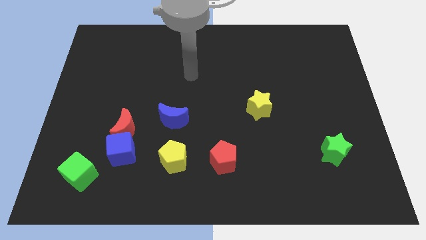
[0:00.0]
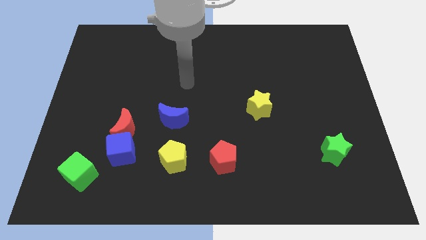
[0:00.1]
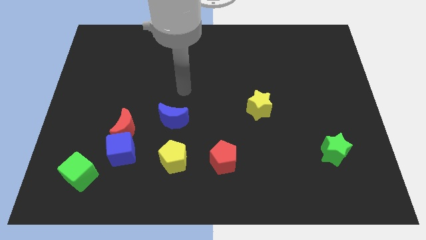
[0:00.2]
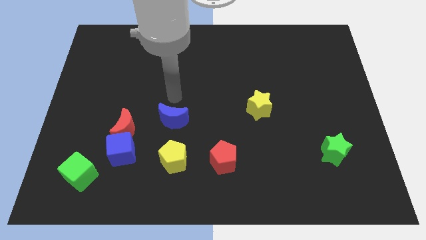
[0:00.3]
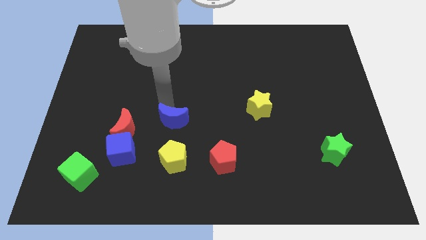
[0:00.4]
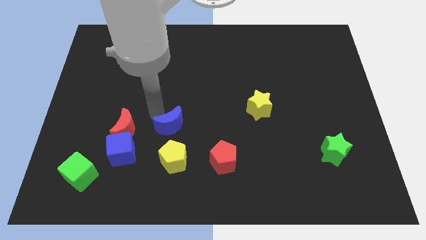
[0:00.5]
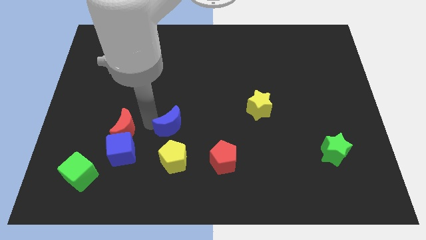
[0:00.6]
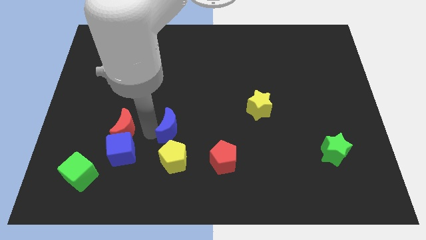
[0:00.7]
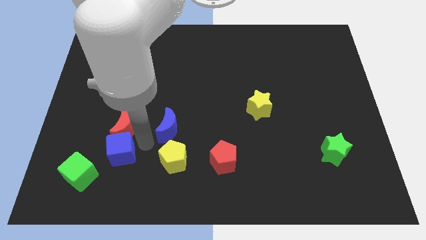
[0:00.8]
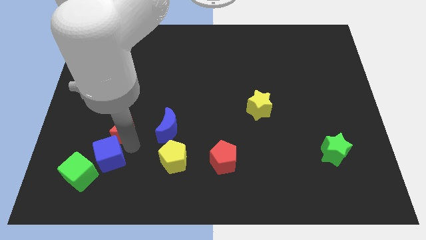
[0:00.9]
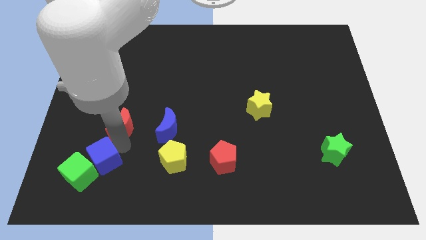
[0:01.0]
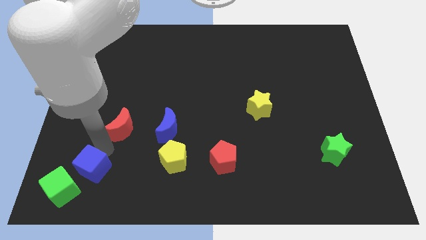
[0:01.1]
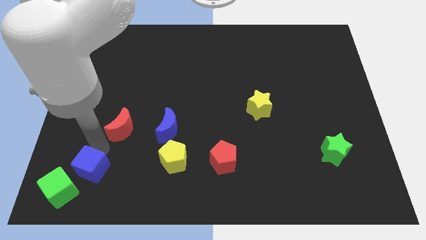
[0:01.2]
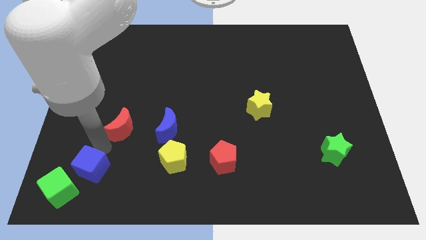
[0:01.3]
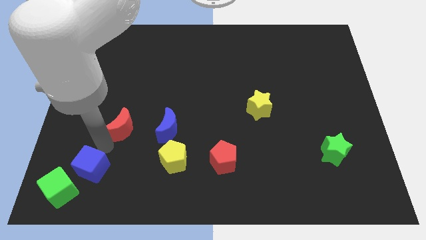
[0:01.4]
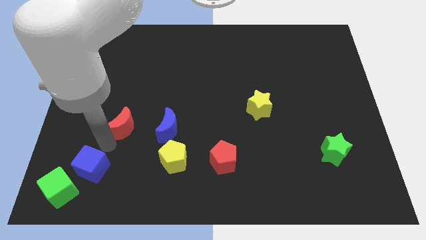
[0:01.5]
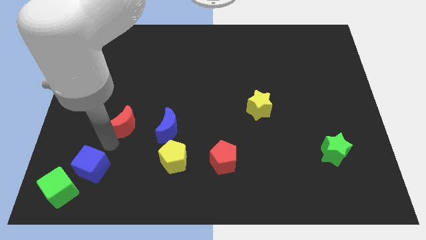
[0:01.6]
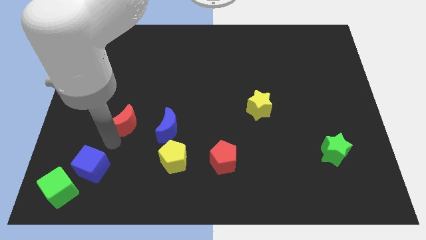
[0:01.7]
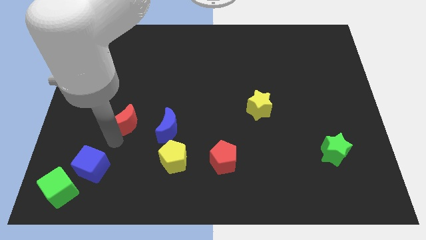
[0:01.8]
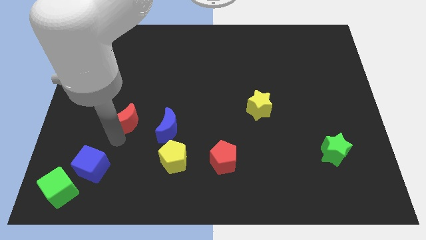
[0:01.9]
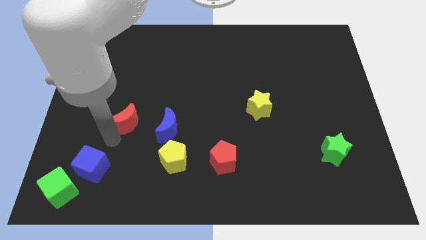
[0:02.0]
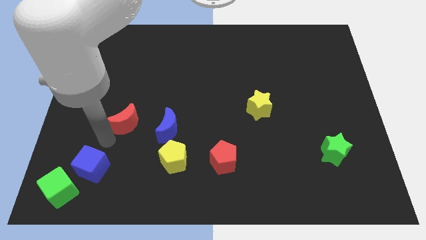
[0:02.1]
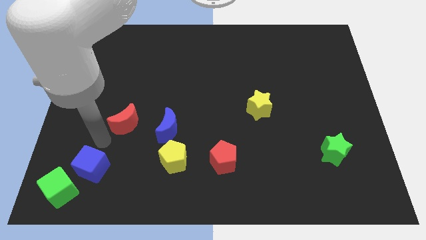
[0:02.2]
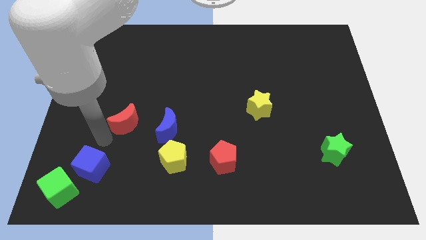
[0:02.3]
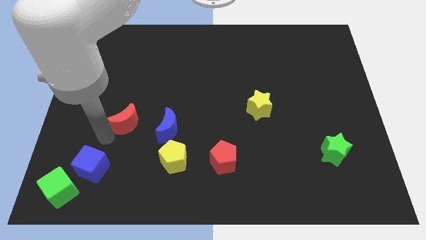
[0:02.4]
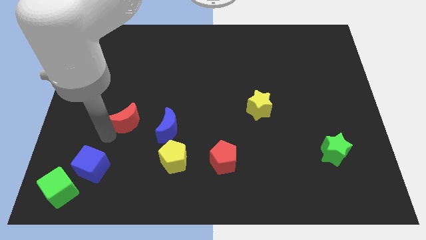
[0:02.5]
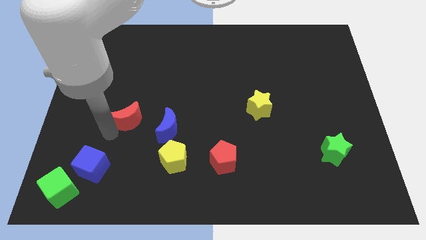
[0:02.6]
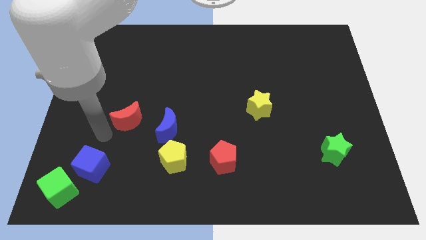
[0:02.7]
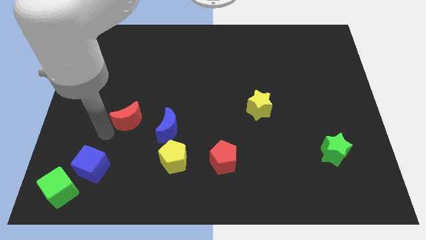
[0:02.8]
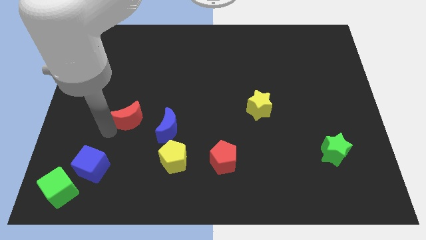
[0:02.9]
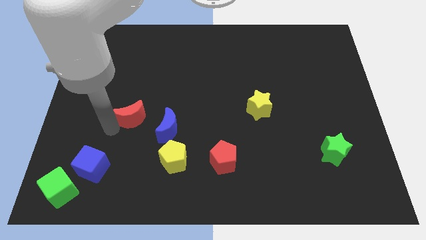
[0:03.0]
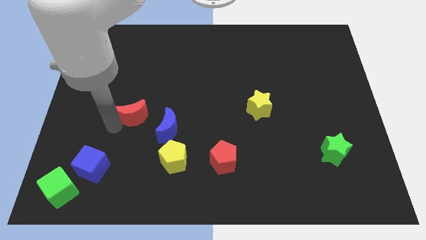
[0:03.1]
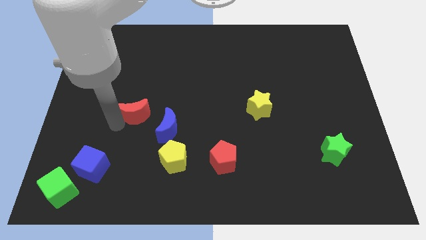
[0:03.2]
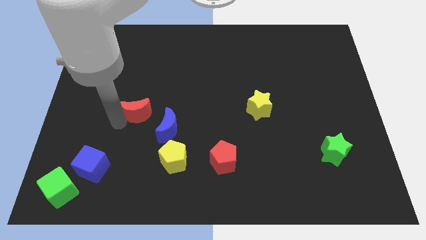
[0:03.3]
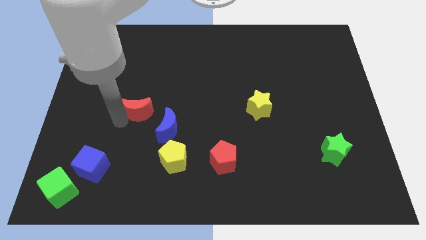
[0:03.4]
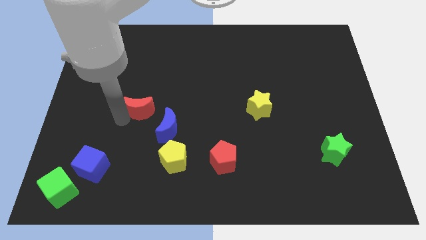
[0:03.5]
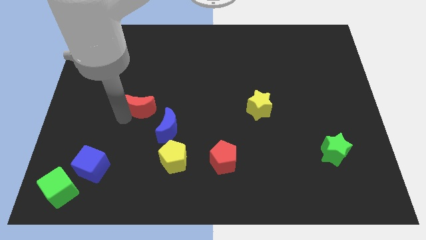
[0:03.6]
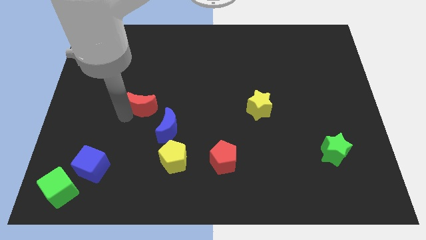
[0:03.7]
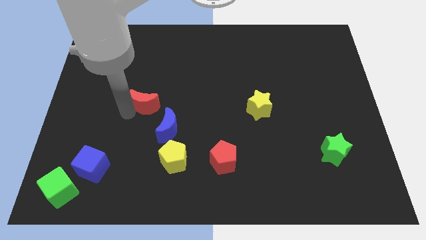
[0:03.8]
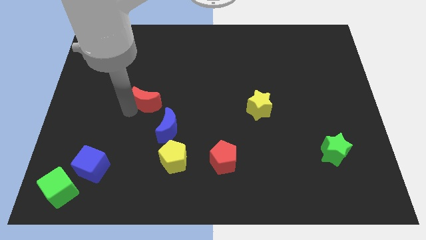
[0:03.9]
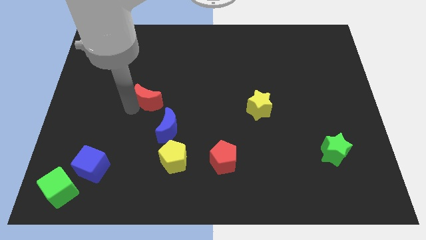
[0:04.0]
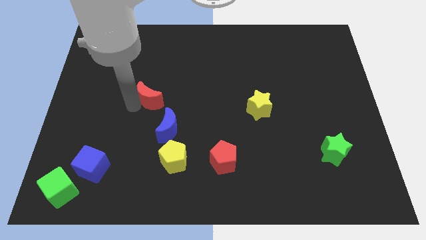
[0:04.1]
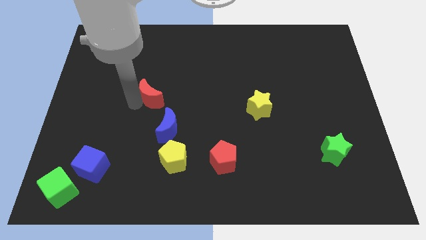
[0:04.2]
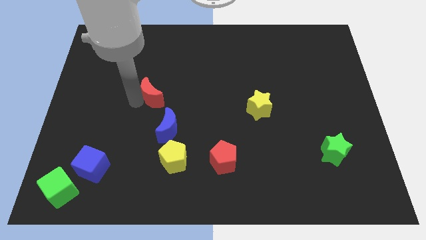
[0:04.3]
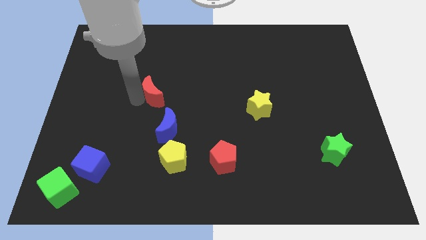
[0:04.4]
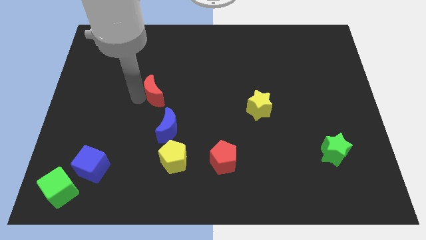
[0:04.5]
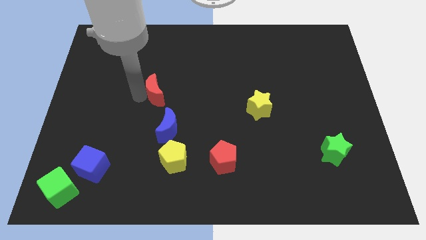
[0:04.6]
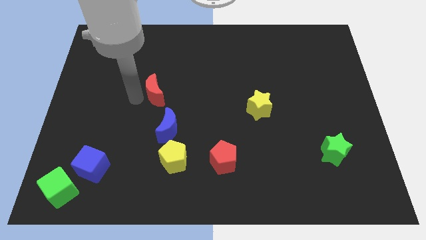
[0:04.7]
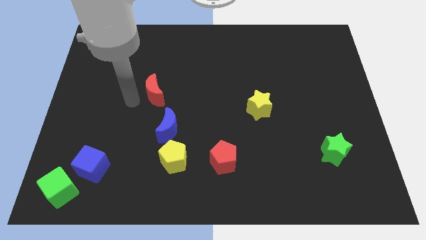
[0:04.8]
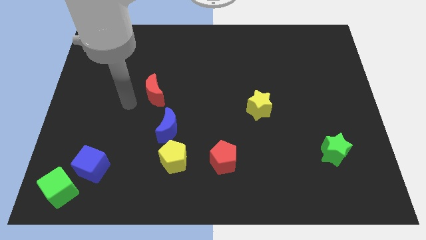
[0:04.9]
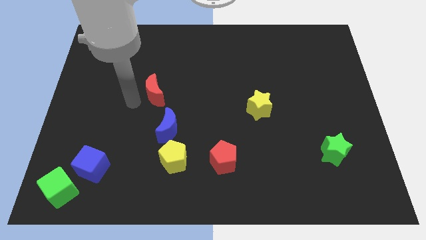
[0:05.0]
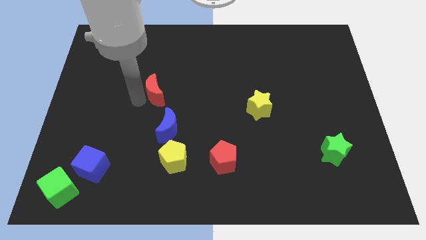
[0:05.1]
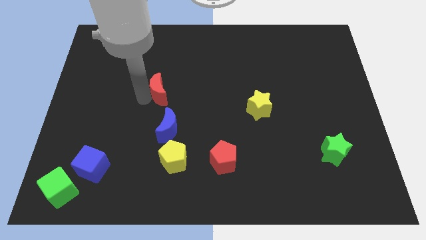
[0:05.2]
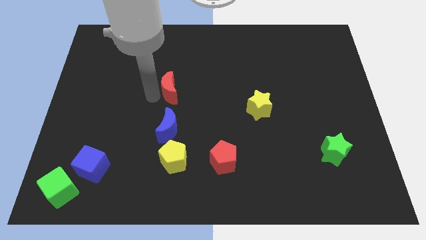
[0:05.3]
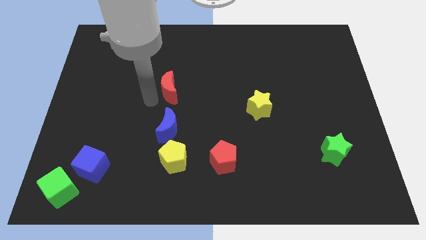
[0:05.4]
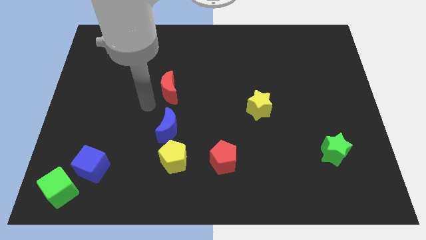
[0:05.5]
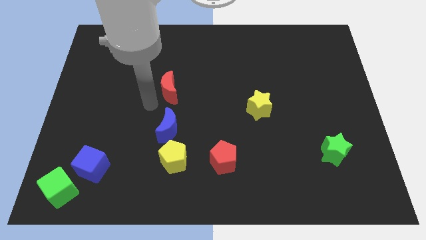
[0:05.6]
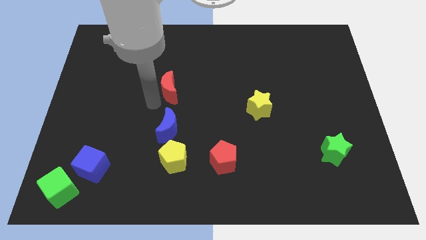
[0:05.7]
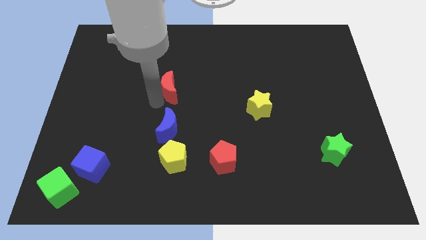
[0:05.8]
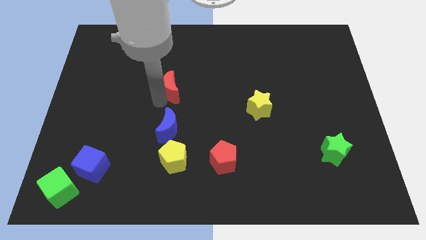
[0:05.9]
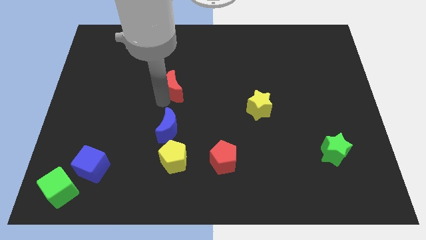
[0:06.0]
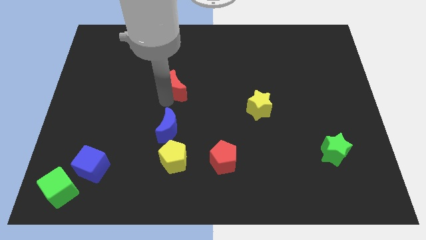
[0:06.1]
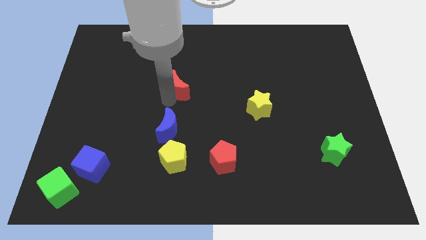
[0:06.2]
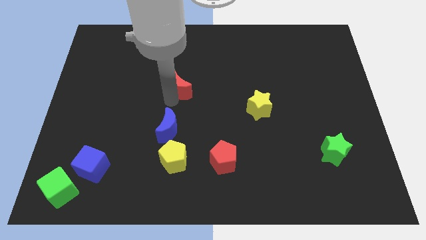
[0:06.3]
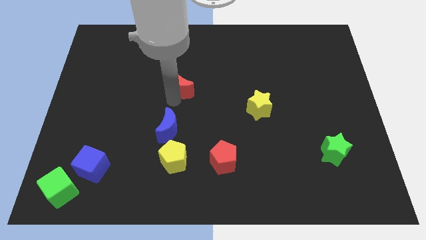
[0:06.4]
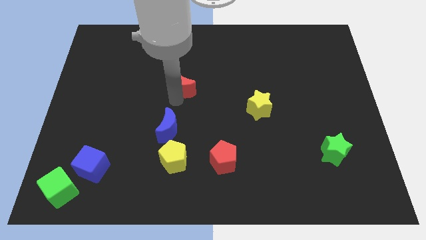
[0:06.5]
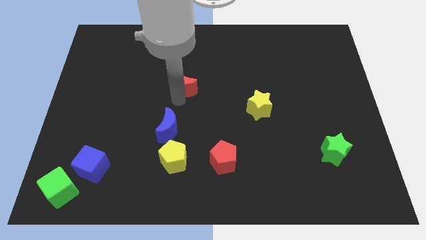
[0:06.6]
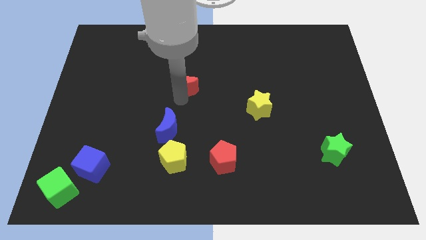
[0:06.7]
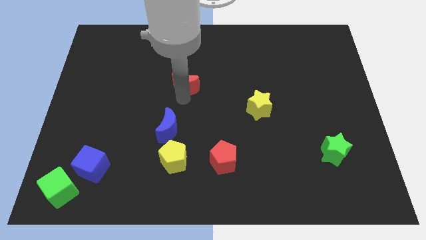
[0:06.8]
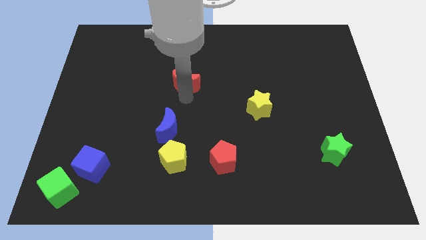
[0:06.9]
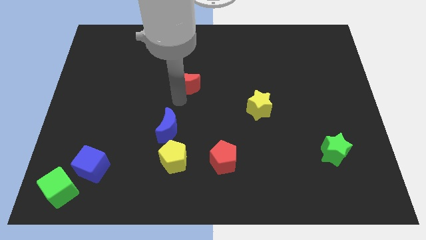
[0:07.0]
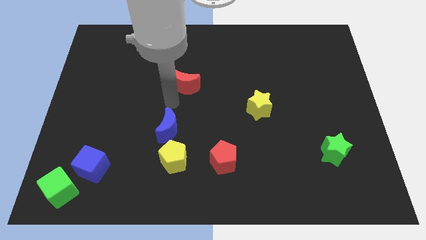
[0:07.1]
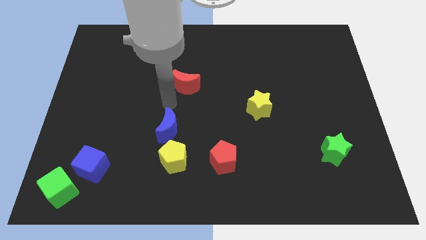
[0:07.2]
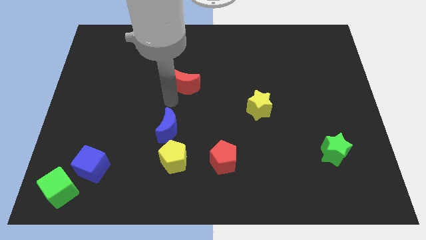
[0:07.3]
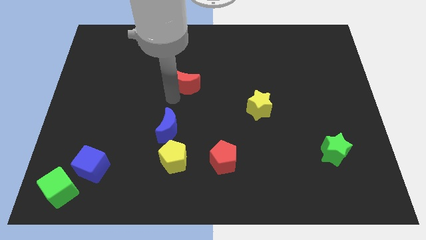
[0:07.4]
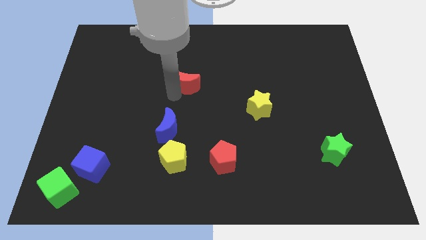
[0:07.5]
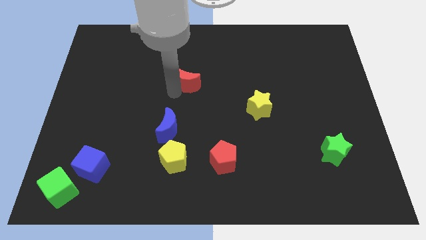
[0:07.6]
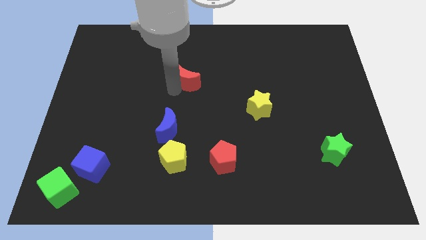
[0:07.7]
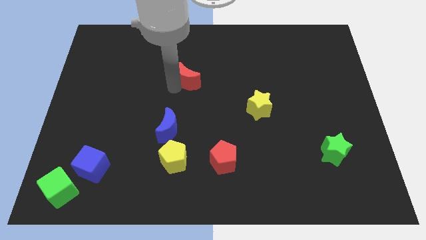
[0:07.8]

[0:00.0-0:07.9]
push the red moon upwards and then to the right
